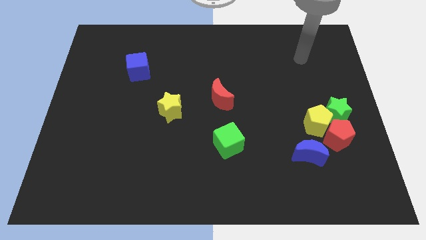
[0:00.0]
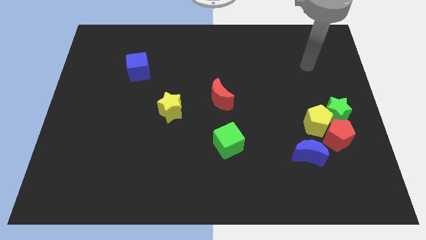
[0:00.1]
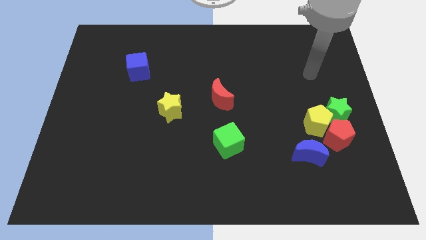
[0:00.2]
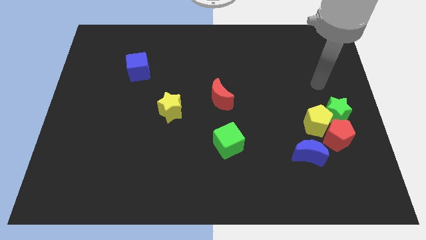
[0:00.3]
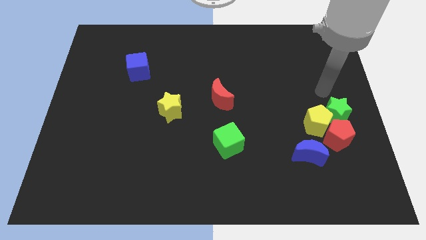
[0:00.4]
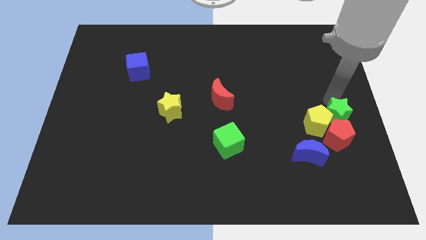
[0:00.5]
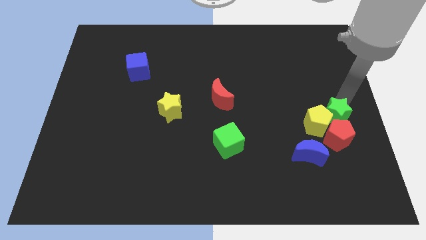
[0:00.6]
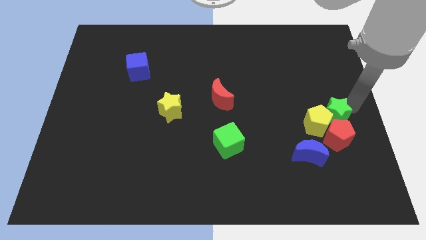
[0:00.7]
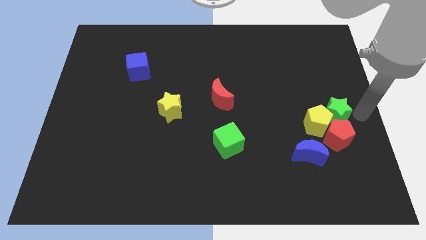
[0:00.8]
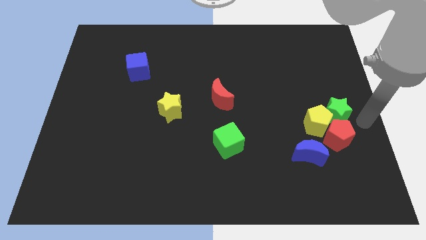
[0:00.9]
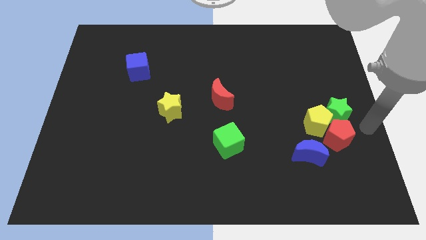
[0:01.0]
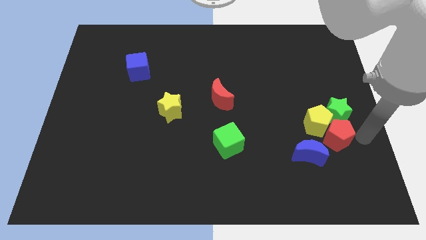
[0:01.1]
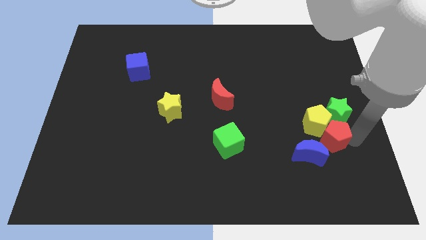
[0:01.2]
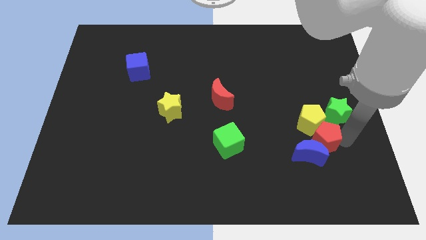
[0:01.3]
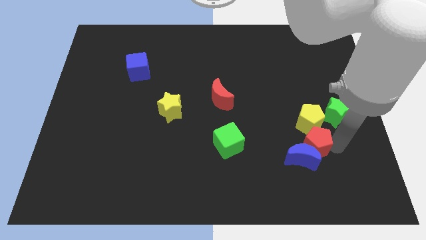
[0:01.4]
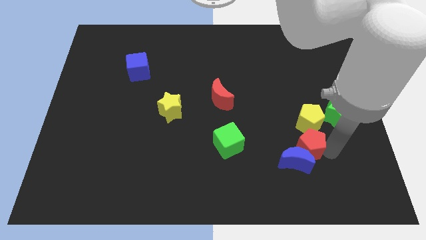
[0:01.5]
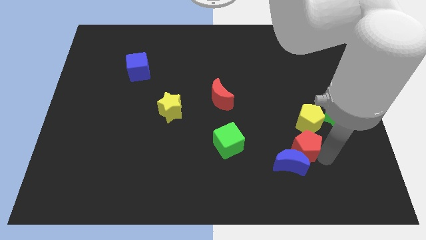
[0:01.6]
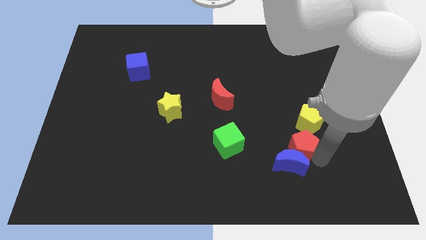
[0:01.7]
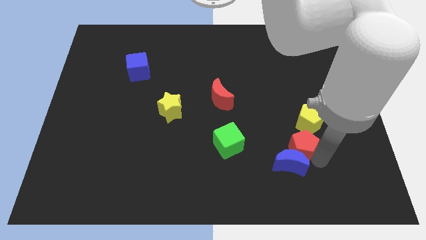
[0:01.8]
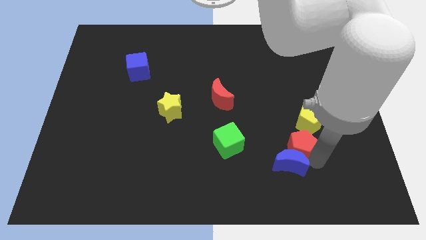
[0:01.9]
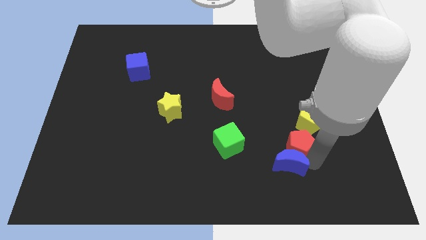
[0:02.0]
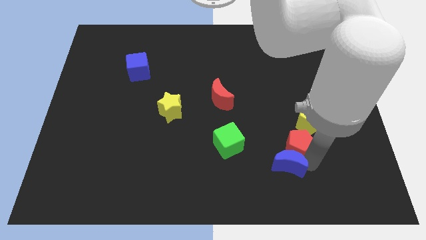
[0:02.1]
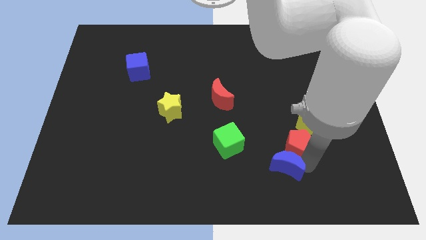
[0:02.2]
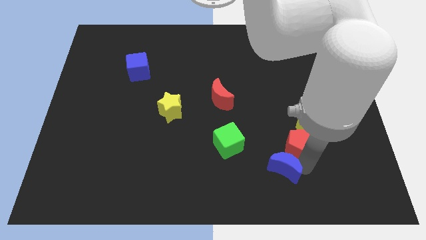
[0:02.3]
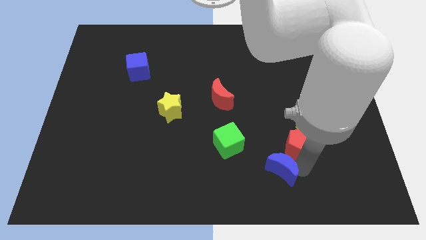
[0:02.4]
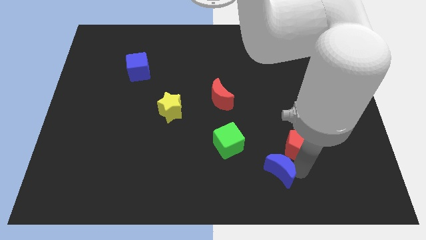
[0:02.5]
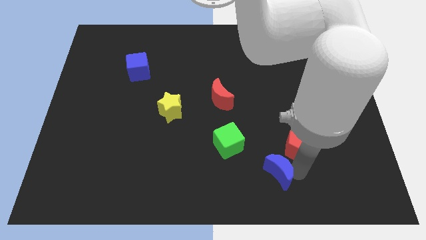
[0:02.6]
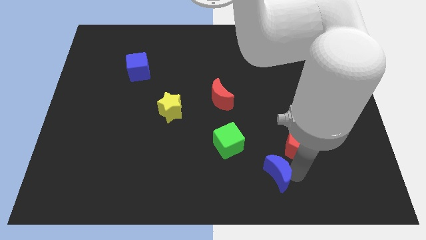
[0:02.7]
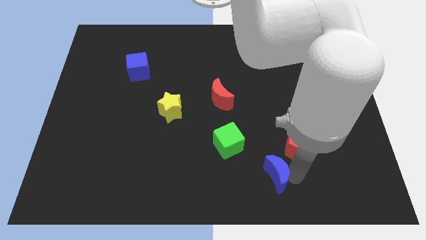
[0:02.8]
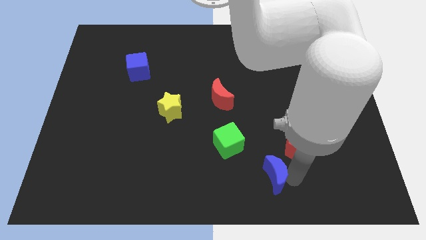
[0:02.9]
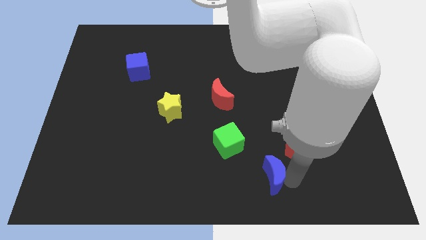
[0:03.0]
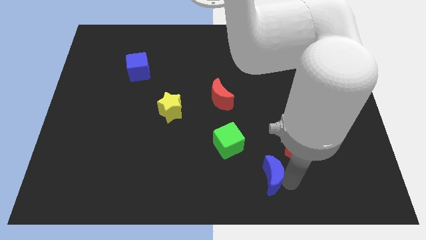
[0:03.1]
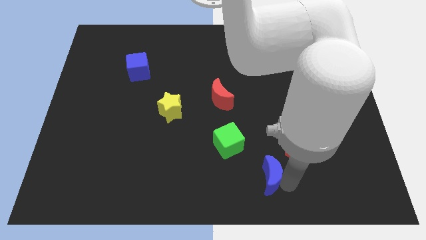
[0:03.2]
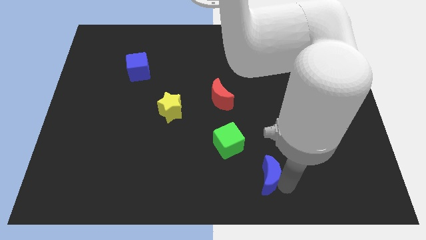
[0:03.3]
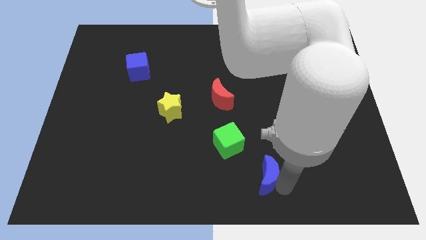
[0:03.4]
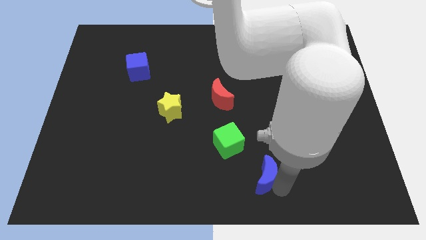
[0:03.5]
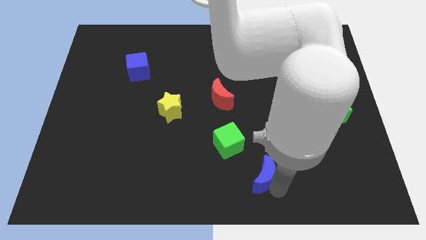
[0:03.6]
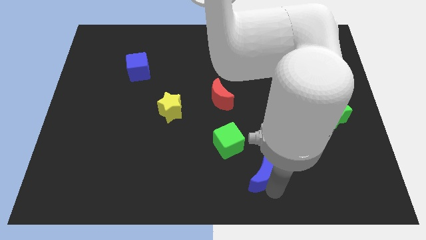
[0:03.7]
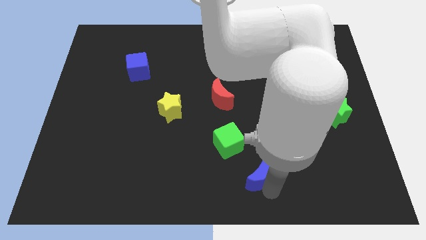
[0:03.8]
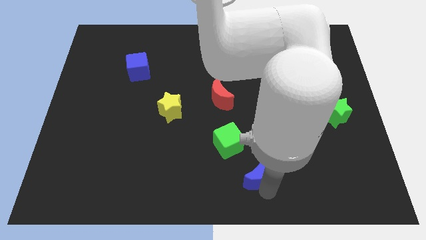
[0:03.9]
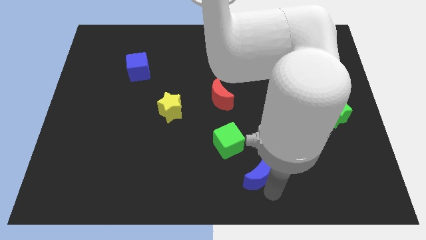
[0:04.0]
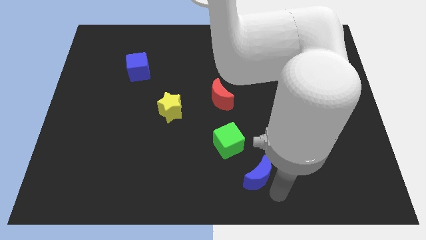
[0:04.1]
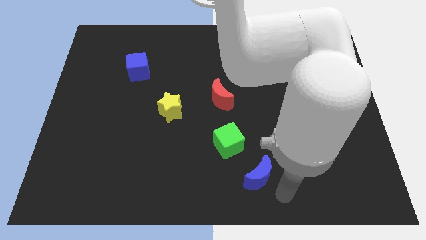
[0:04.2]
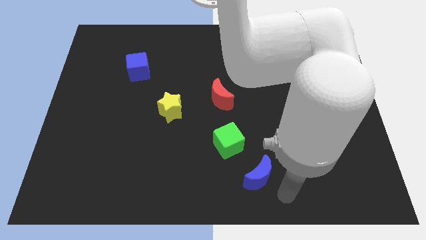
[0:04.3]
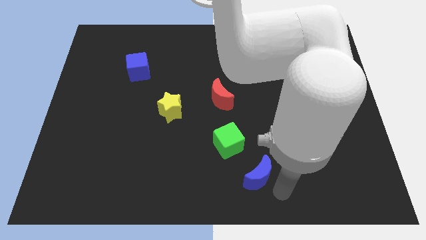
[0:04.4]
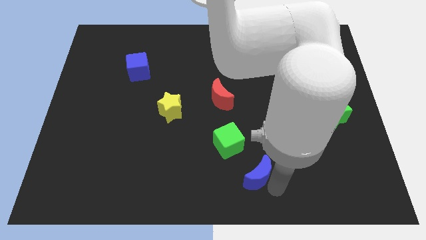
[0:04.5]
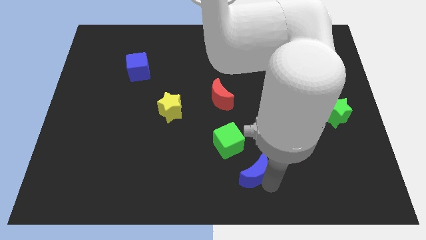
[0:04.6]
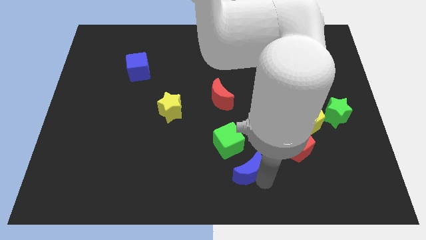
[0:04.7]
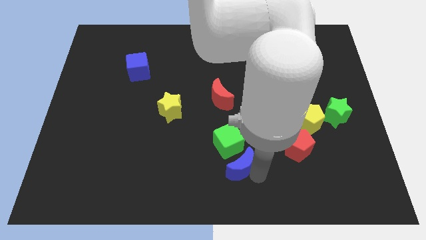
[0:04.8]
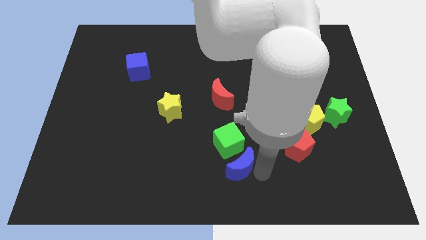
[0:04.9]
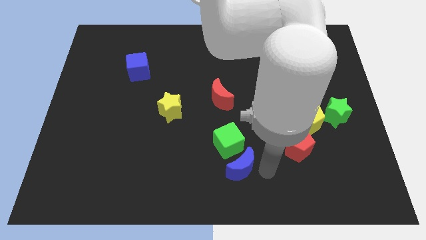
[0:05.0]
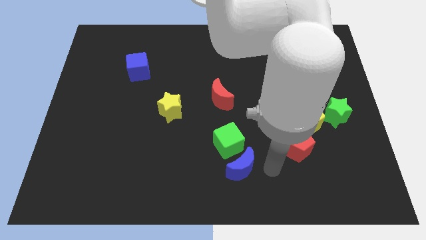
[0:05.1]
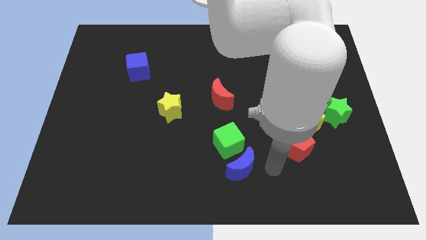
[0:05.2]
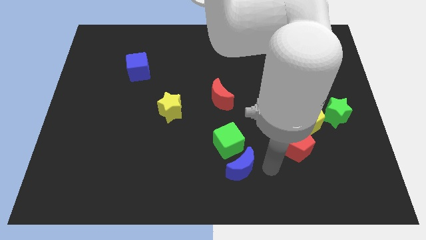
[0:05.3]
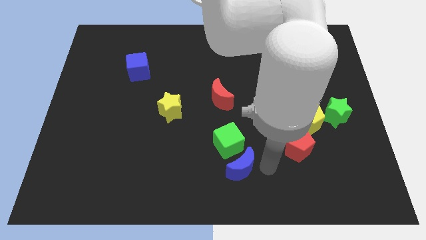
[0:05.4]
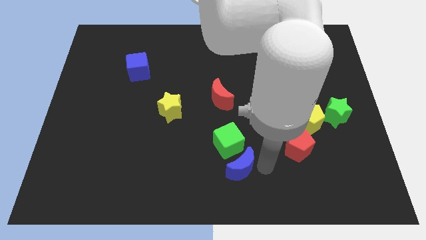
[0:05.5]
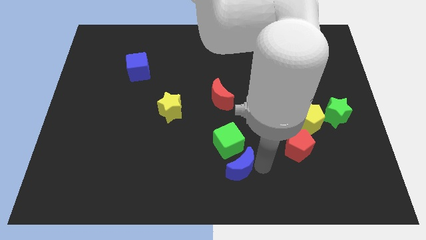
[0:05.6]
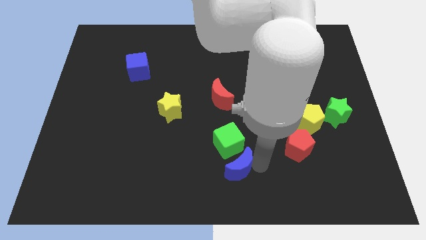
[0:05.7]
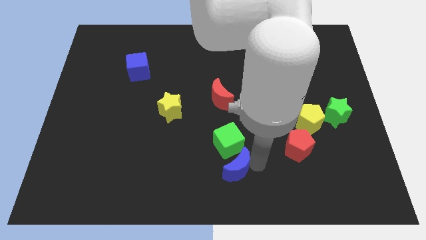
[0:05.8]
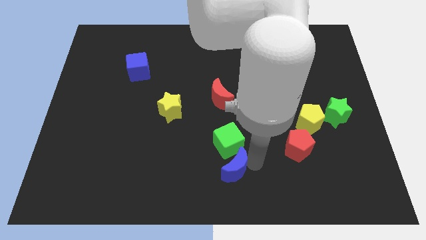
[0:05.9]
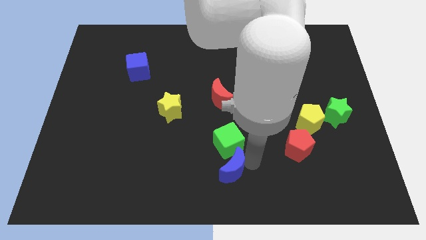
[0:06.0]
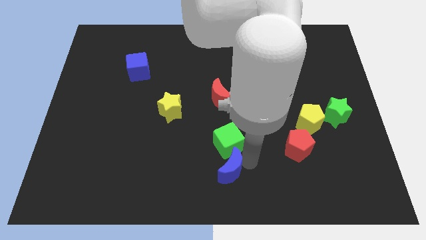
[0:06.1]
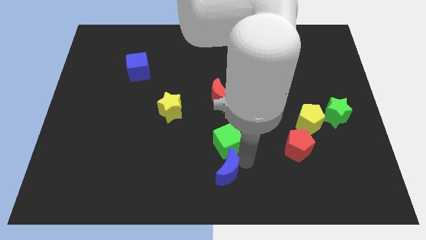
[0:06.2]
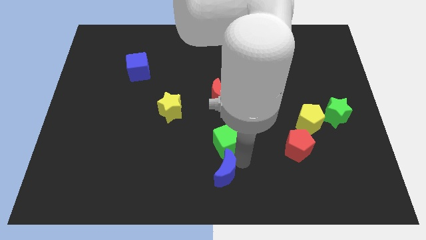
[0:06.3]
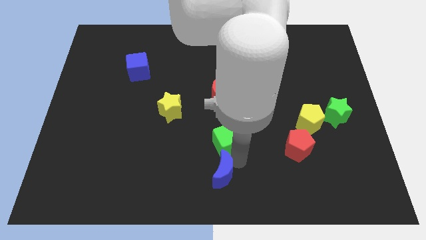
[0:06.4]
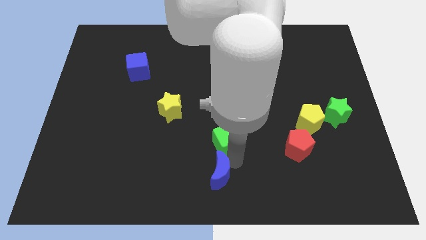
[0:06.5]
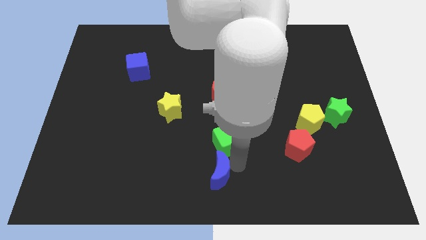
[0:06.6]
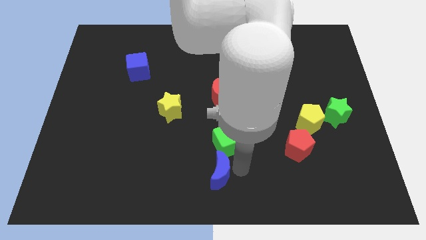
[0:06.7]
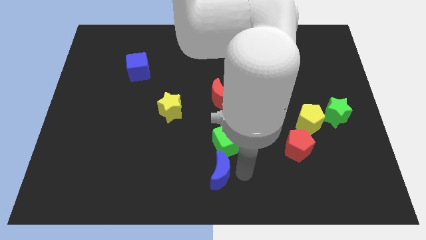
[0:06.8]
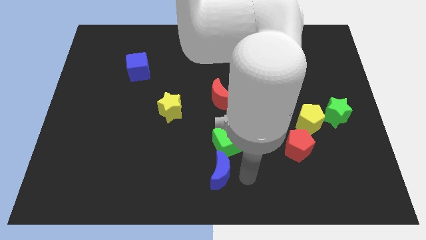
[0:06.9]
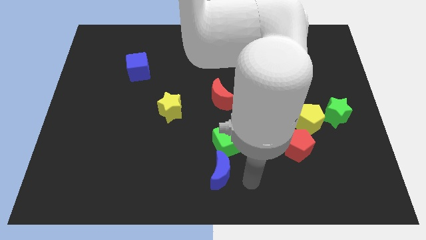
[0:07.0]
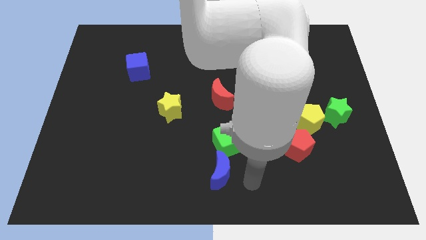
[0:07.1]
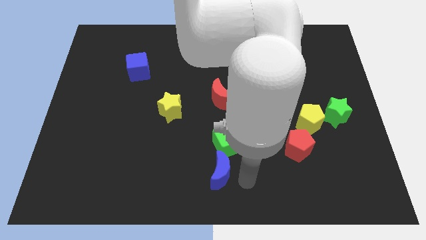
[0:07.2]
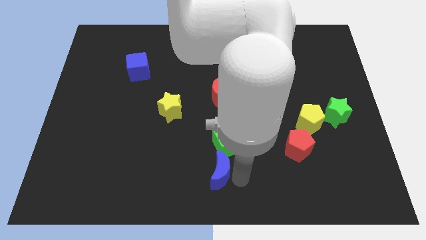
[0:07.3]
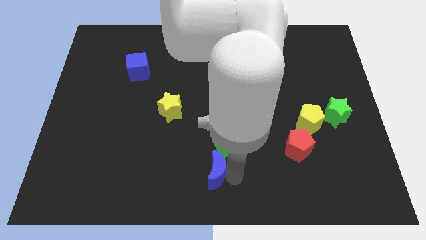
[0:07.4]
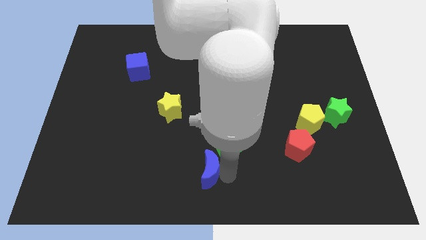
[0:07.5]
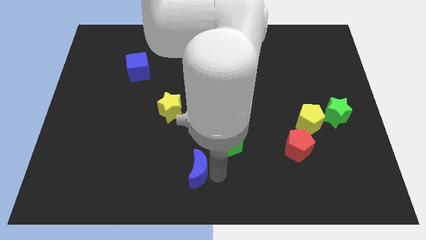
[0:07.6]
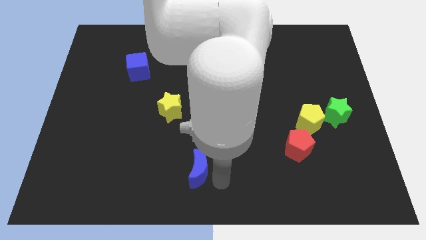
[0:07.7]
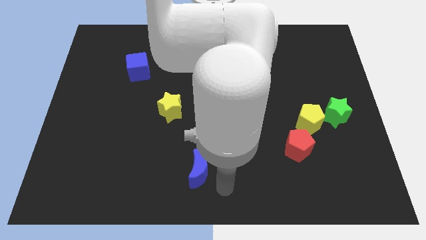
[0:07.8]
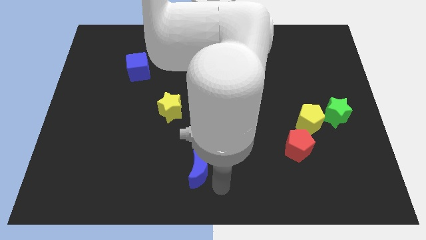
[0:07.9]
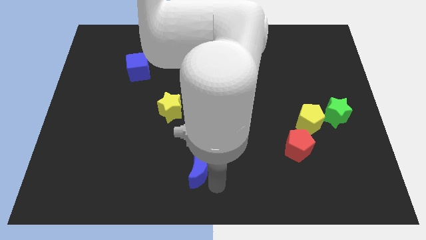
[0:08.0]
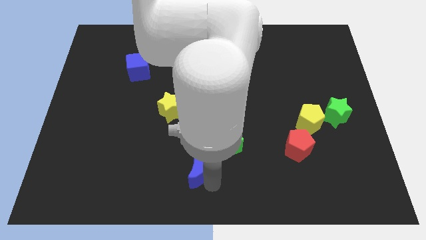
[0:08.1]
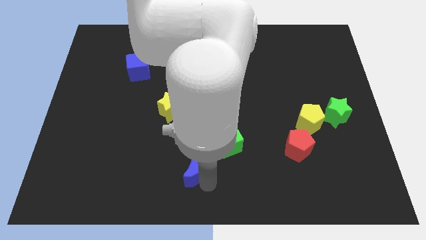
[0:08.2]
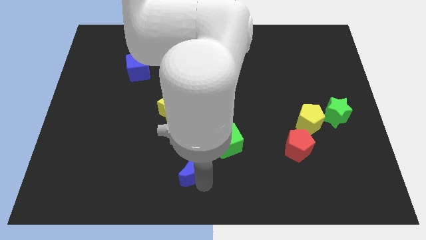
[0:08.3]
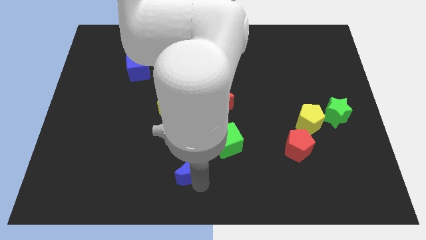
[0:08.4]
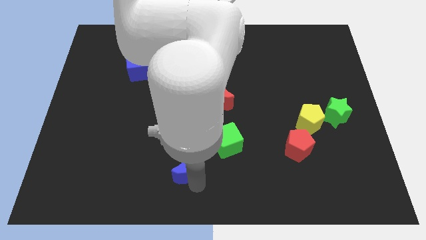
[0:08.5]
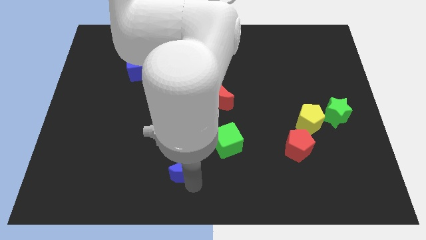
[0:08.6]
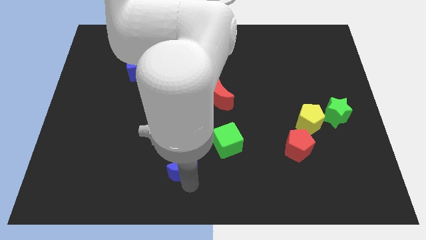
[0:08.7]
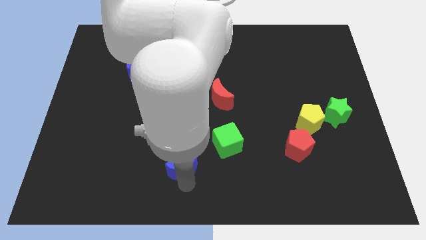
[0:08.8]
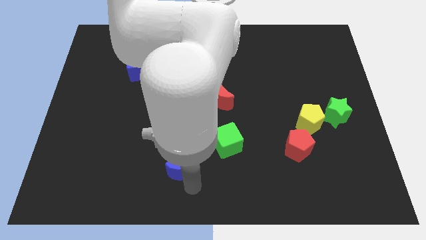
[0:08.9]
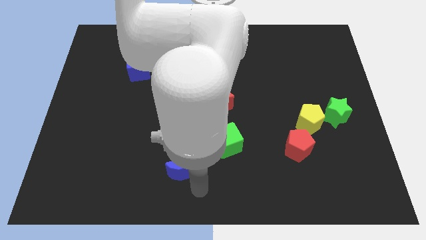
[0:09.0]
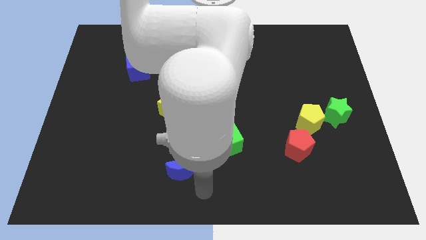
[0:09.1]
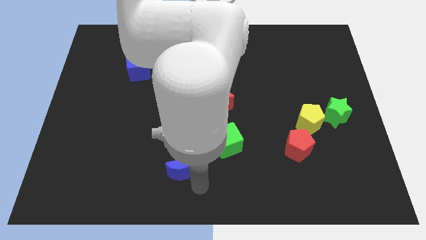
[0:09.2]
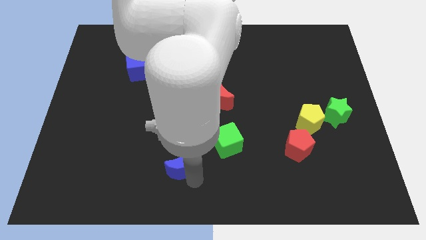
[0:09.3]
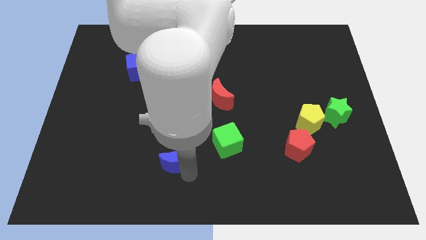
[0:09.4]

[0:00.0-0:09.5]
push the blue moon to the bottom side of the yellow star
